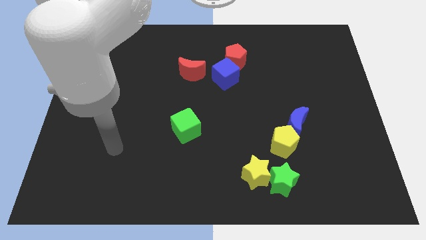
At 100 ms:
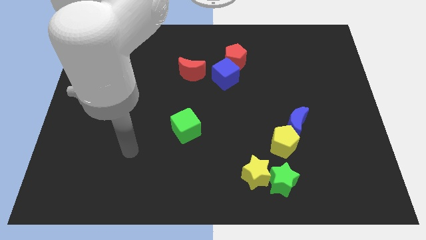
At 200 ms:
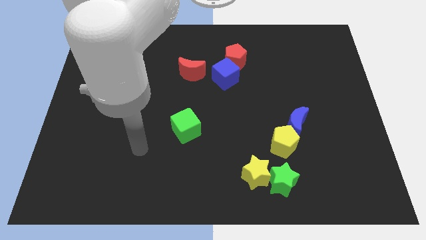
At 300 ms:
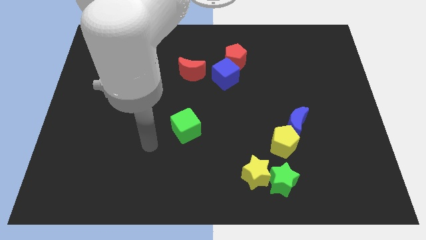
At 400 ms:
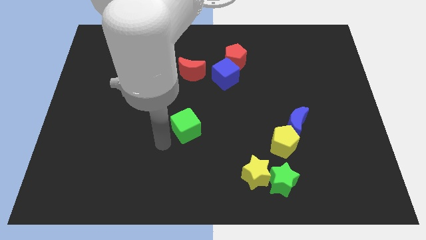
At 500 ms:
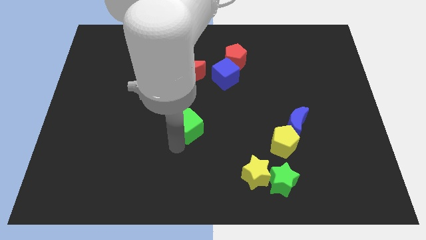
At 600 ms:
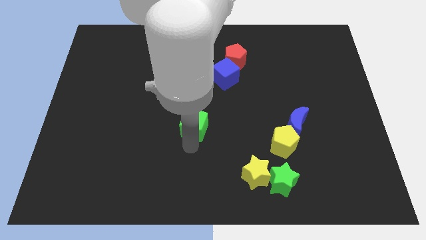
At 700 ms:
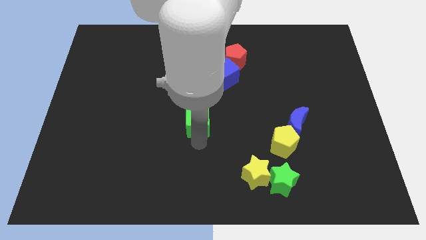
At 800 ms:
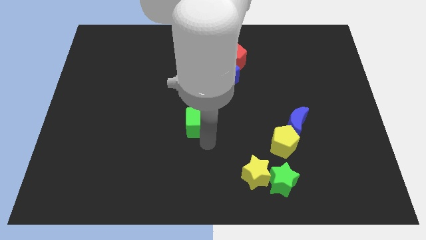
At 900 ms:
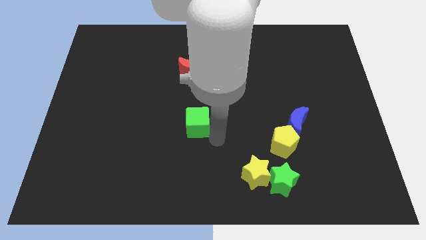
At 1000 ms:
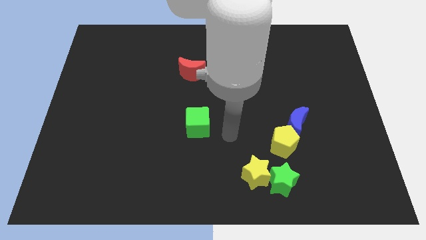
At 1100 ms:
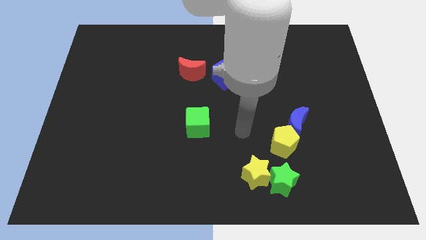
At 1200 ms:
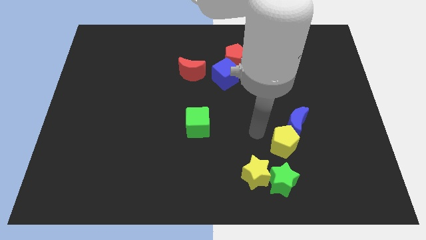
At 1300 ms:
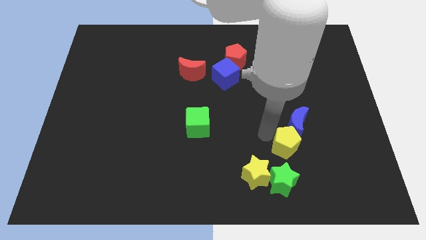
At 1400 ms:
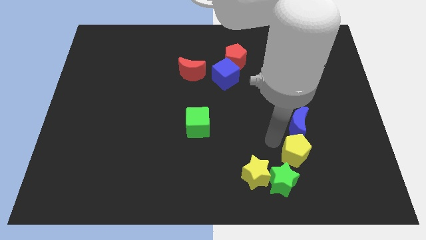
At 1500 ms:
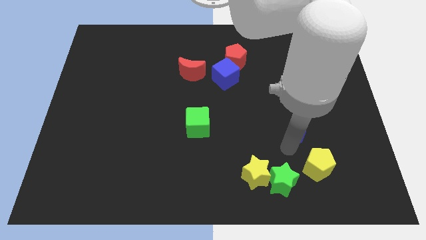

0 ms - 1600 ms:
move the blue moon away from the yellow pentagon

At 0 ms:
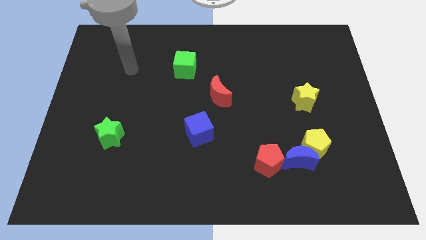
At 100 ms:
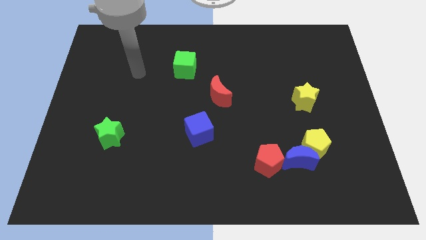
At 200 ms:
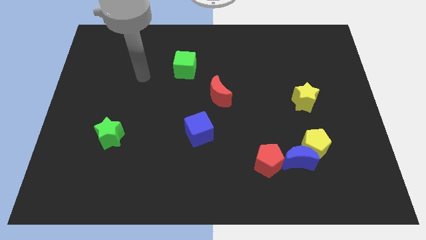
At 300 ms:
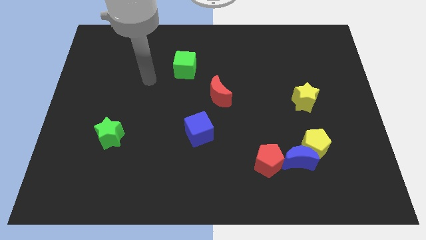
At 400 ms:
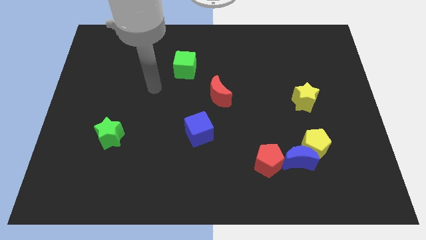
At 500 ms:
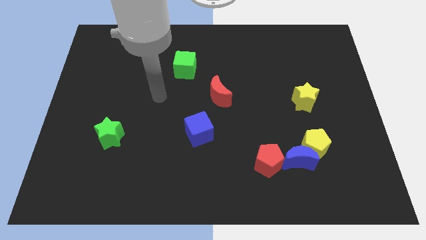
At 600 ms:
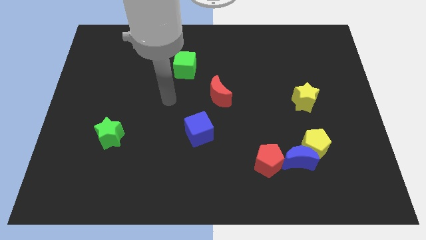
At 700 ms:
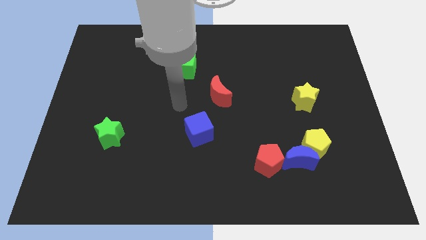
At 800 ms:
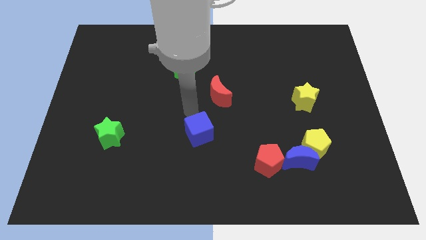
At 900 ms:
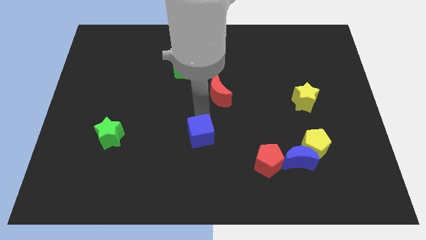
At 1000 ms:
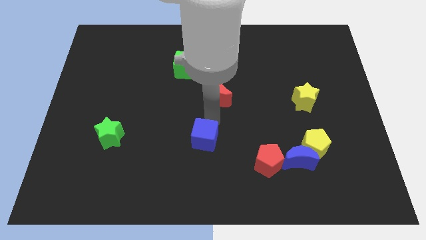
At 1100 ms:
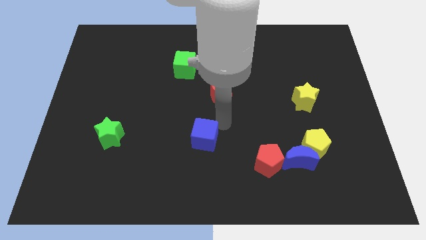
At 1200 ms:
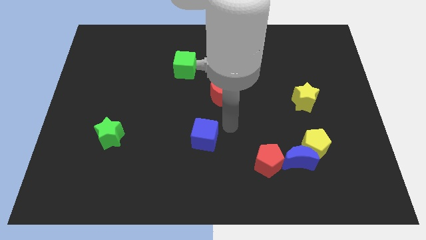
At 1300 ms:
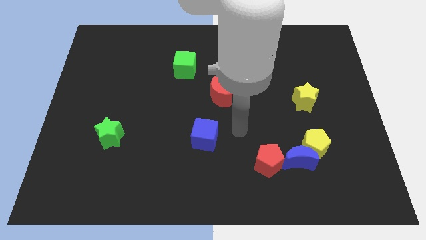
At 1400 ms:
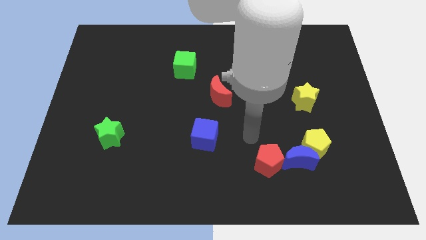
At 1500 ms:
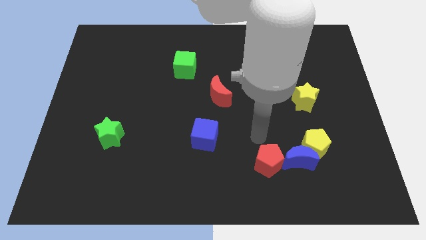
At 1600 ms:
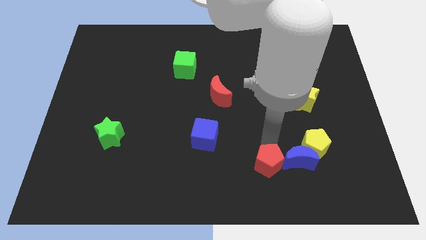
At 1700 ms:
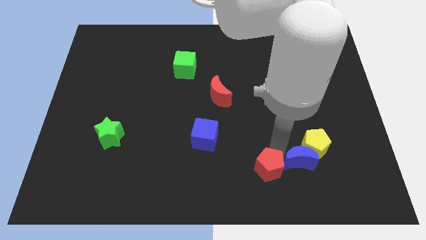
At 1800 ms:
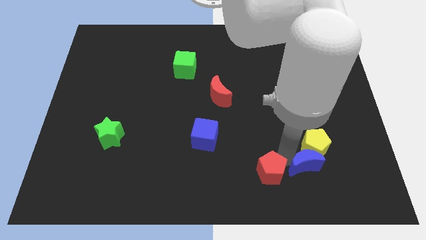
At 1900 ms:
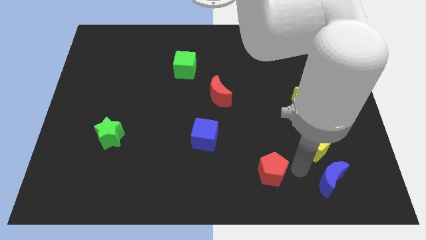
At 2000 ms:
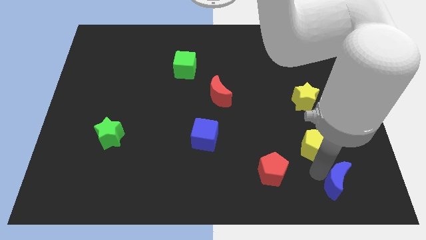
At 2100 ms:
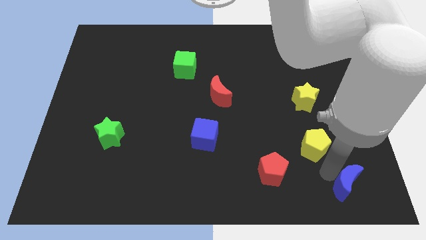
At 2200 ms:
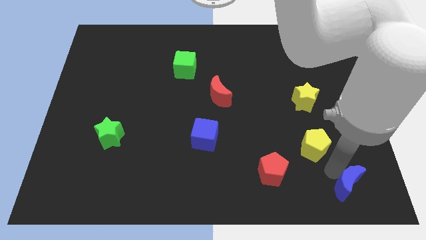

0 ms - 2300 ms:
pull the yellow pentagon apart from the blue moon

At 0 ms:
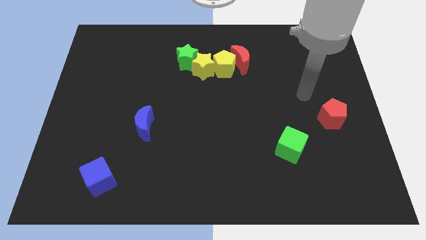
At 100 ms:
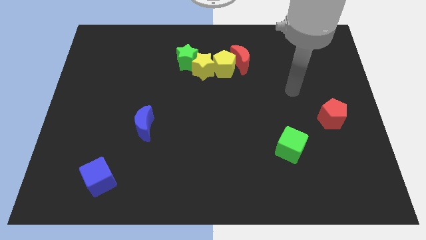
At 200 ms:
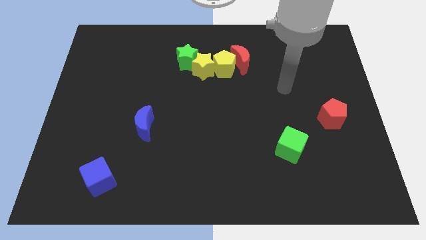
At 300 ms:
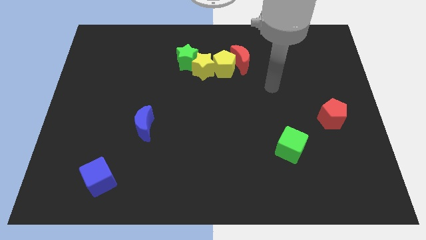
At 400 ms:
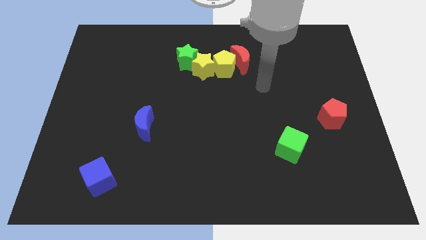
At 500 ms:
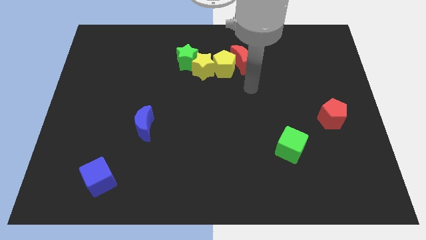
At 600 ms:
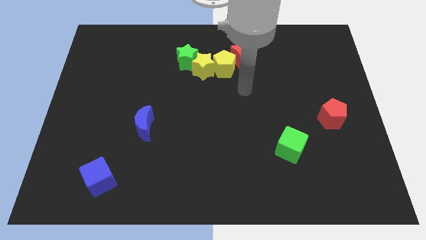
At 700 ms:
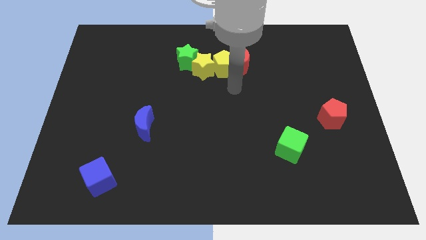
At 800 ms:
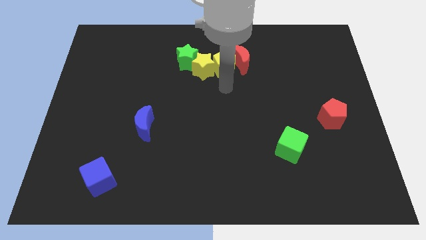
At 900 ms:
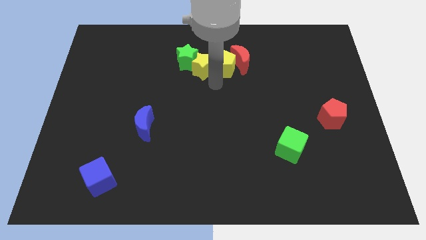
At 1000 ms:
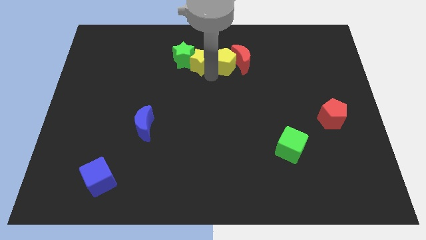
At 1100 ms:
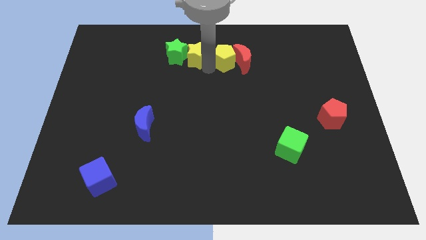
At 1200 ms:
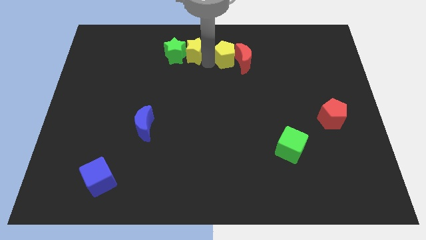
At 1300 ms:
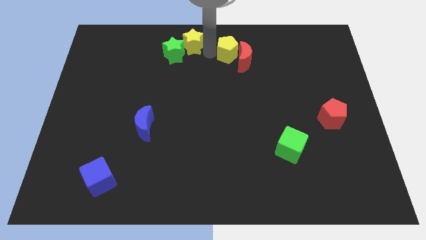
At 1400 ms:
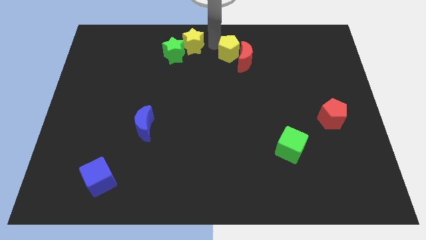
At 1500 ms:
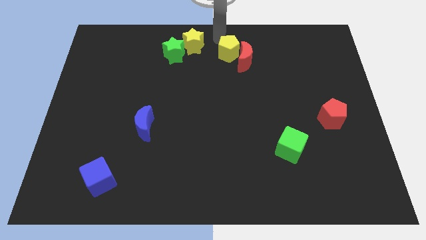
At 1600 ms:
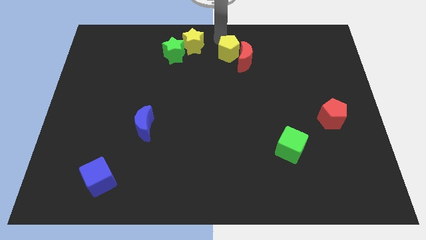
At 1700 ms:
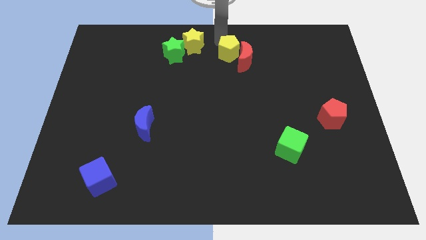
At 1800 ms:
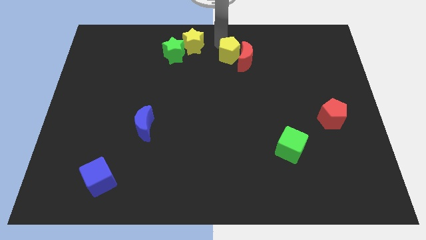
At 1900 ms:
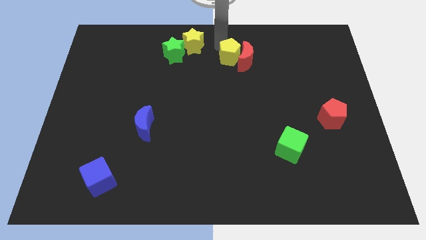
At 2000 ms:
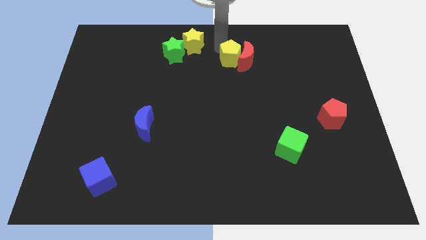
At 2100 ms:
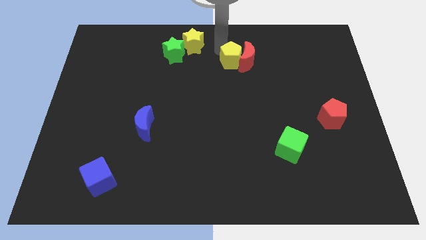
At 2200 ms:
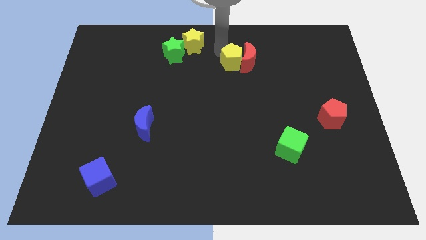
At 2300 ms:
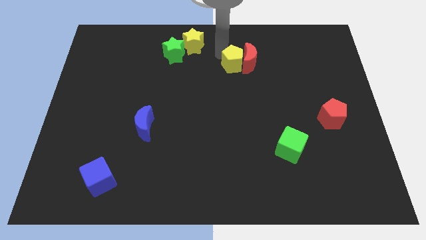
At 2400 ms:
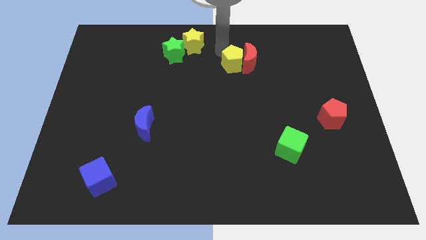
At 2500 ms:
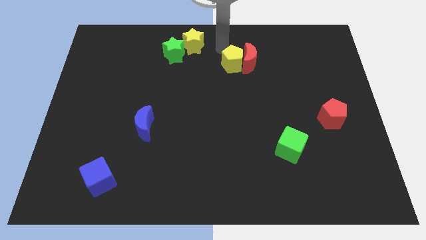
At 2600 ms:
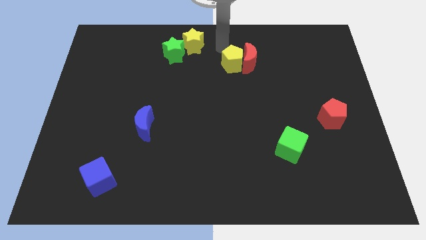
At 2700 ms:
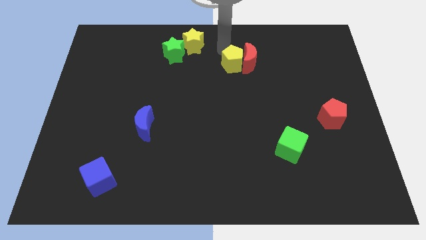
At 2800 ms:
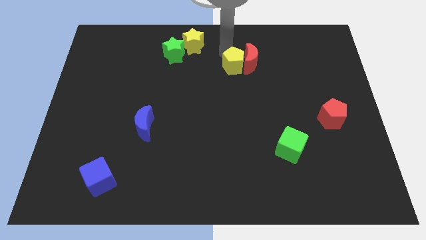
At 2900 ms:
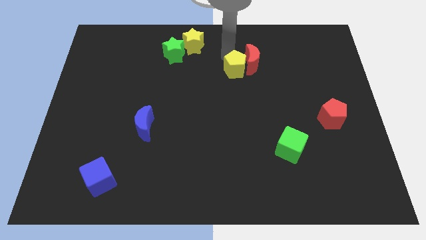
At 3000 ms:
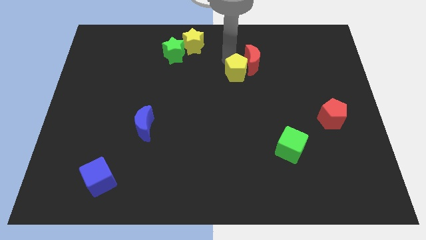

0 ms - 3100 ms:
separate the yellow pentagon from the red moon, yellow star, and green star

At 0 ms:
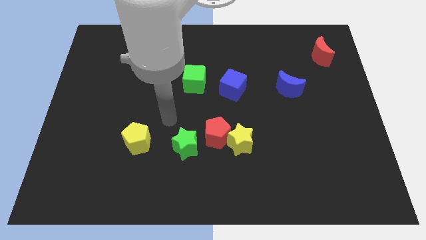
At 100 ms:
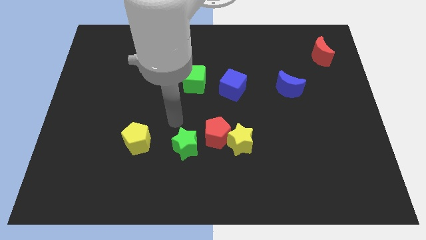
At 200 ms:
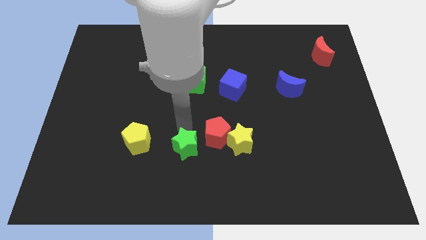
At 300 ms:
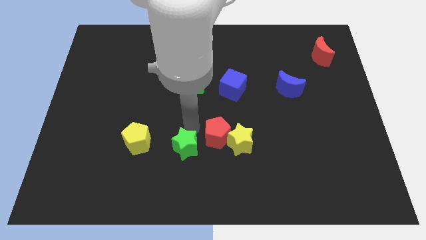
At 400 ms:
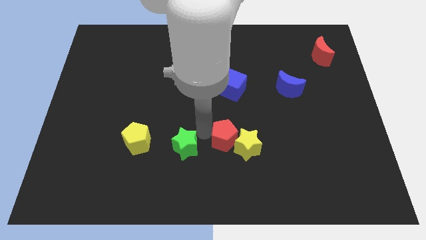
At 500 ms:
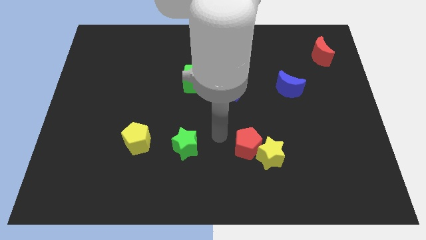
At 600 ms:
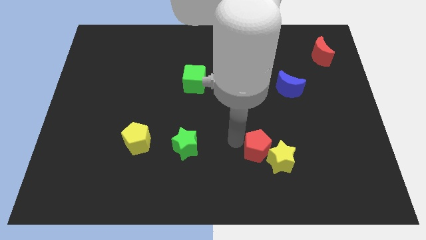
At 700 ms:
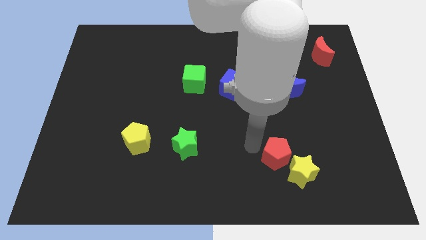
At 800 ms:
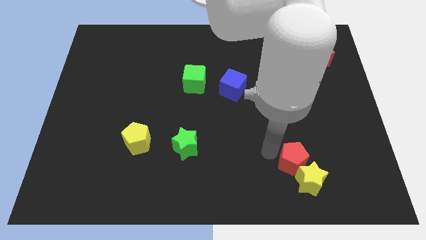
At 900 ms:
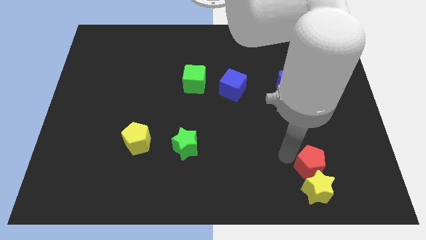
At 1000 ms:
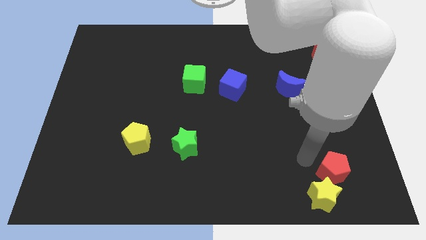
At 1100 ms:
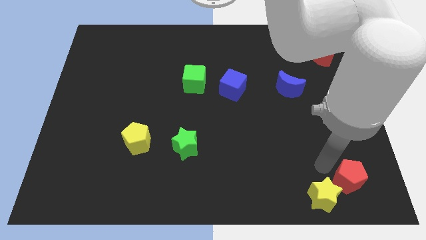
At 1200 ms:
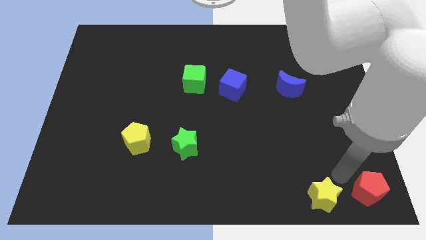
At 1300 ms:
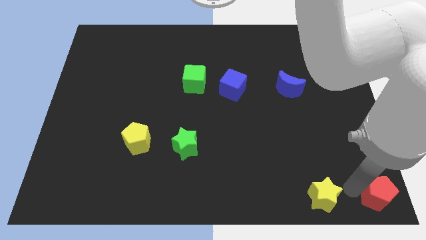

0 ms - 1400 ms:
pull the yellow star apart from the red pentagon

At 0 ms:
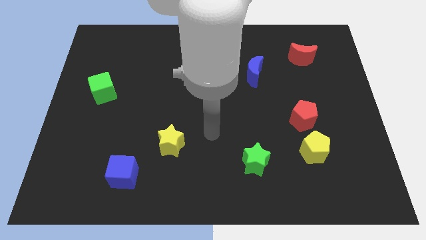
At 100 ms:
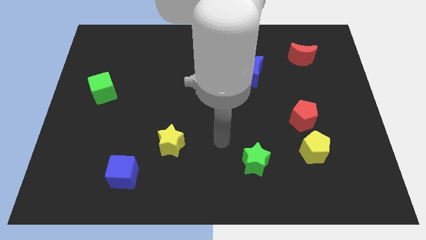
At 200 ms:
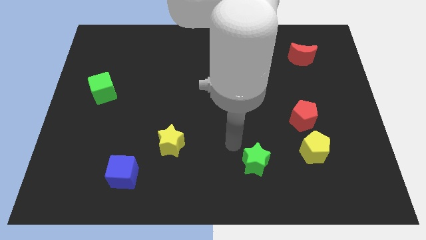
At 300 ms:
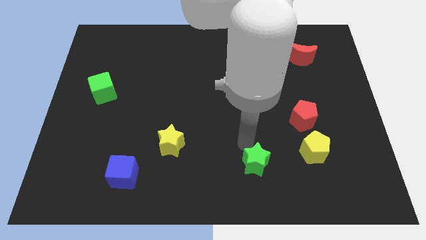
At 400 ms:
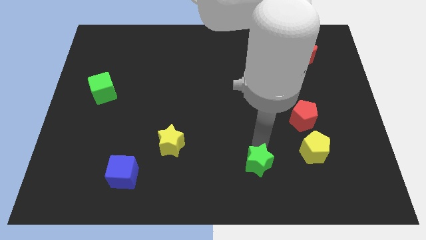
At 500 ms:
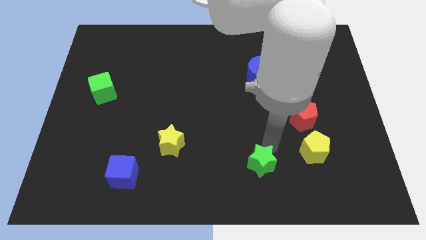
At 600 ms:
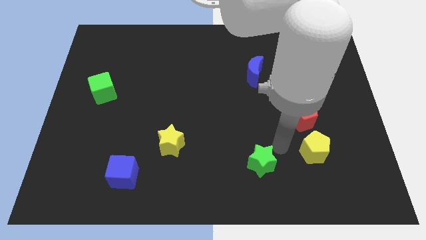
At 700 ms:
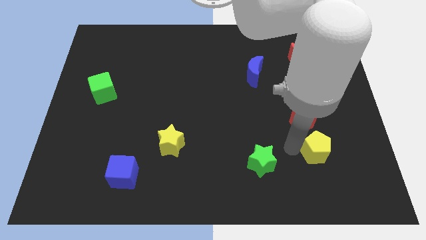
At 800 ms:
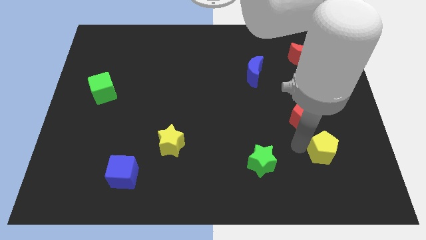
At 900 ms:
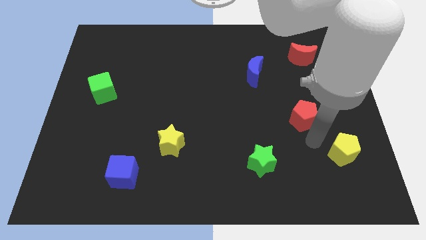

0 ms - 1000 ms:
separate the red pentagon from the yellow pentagon
